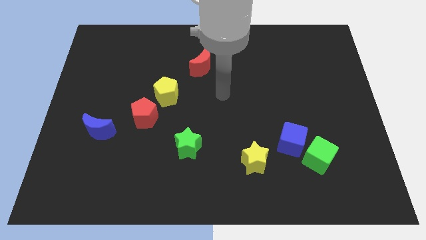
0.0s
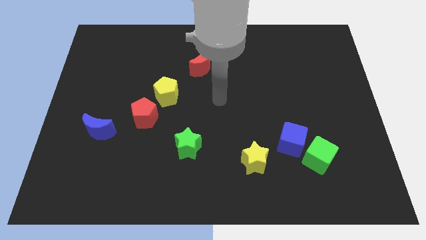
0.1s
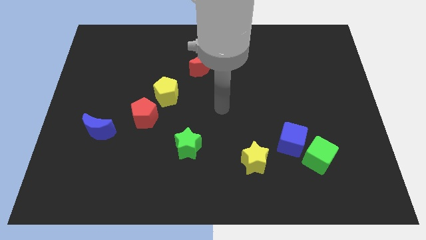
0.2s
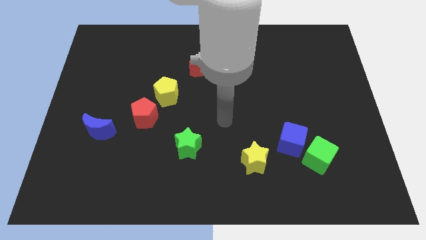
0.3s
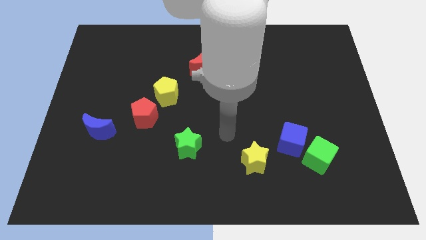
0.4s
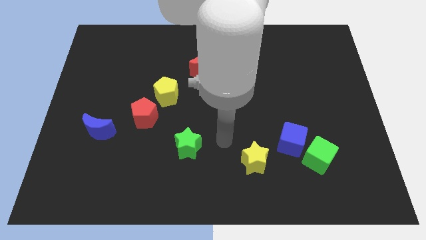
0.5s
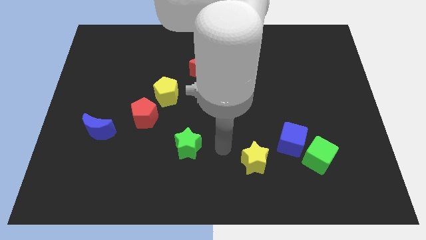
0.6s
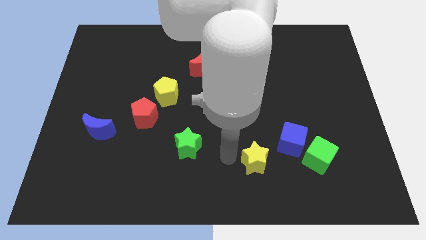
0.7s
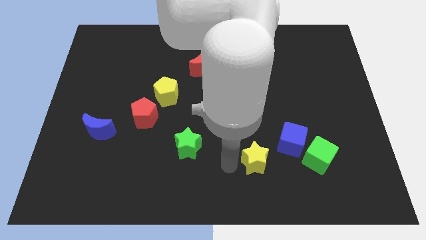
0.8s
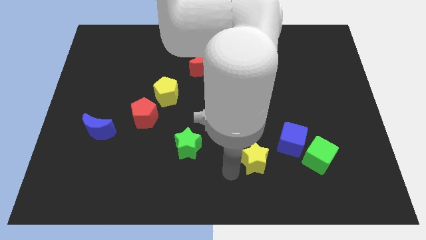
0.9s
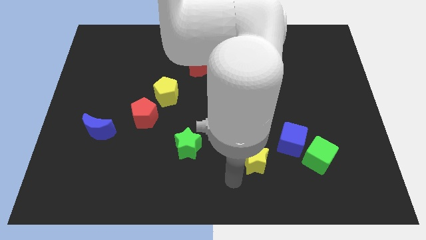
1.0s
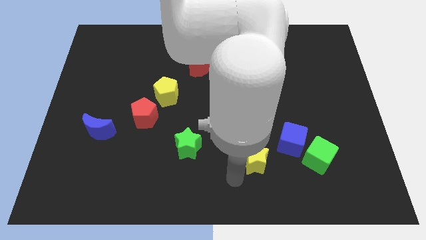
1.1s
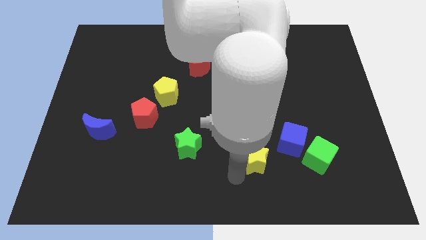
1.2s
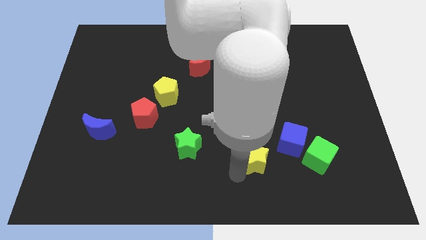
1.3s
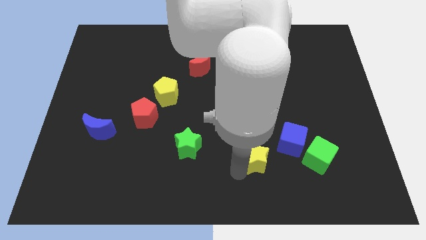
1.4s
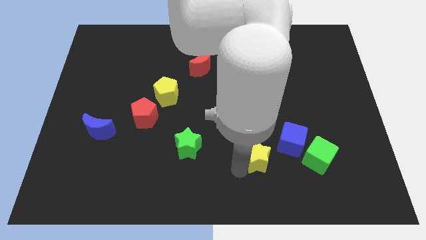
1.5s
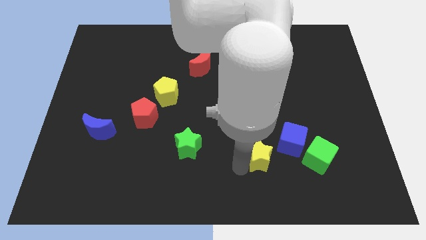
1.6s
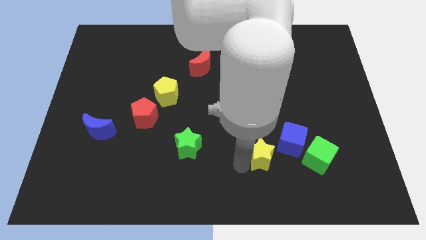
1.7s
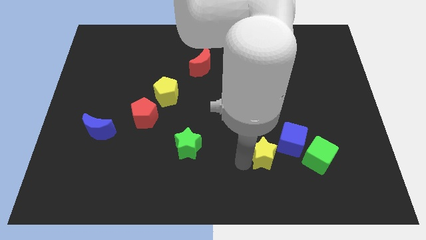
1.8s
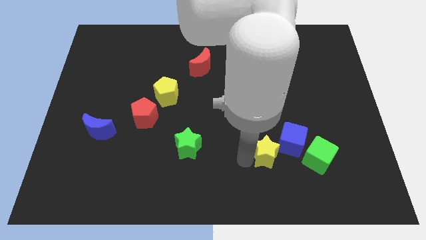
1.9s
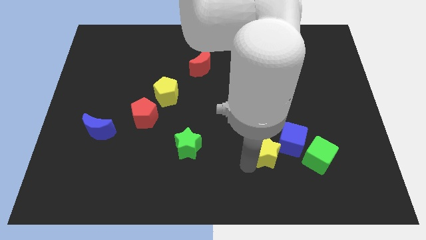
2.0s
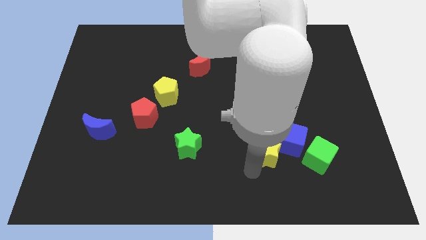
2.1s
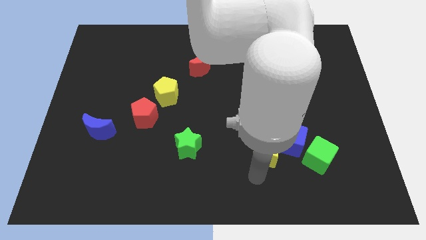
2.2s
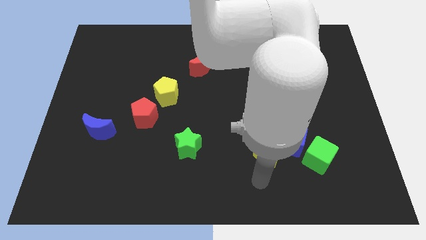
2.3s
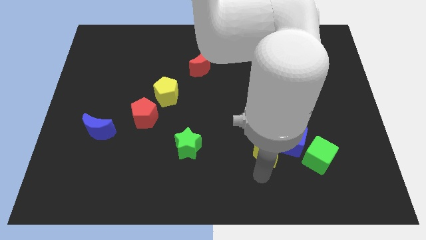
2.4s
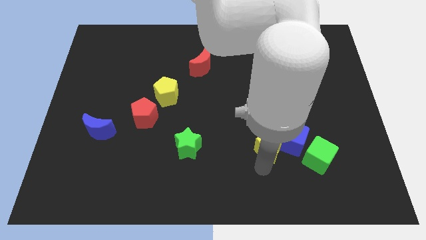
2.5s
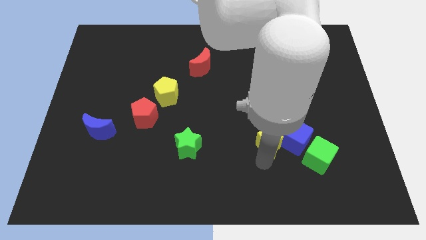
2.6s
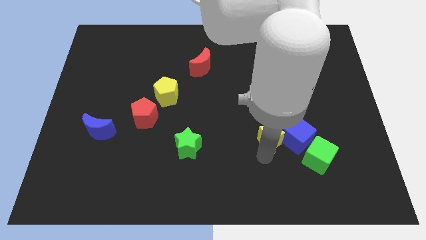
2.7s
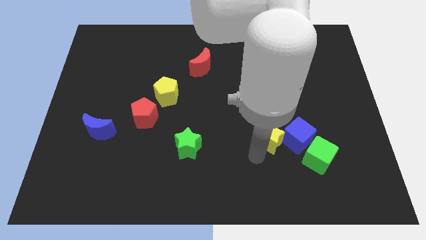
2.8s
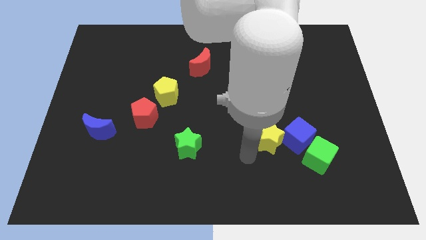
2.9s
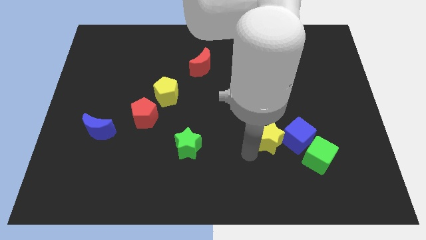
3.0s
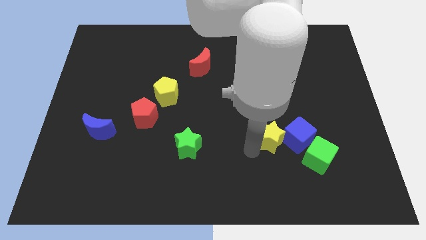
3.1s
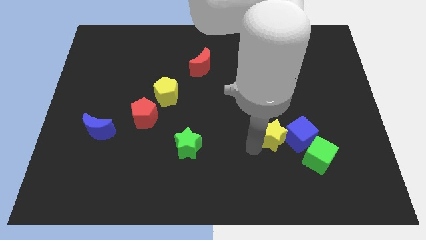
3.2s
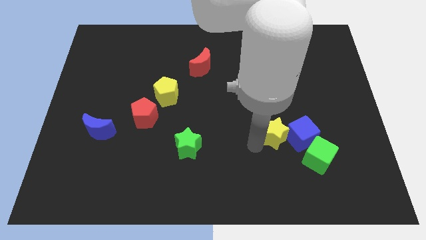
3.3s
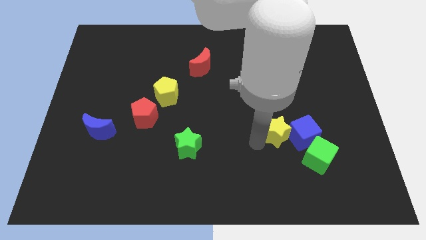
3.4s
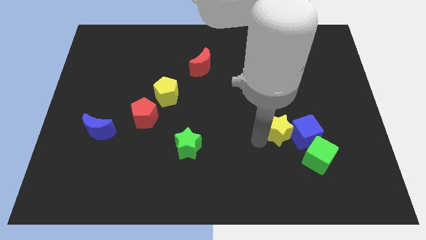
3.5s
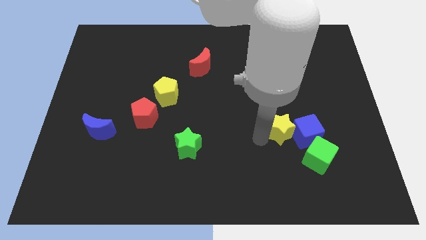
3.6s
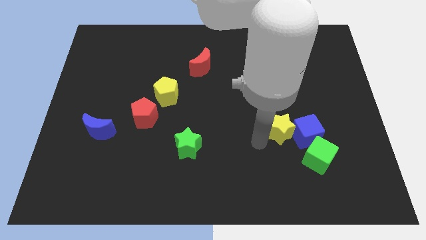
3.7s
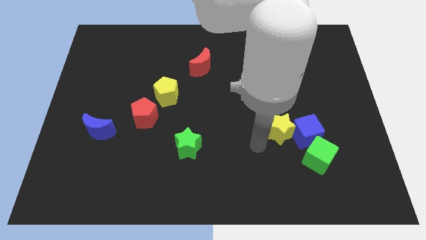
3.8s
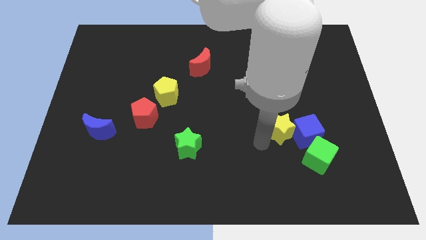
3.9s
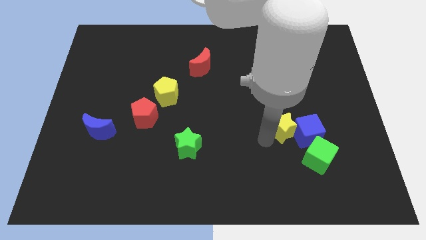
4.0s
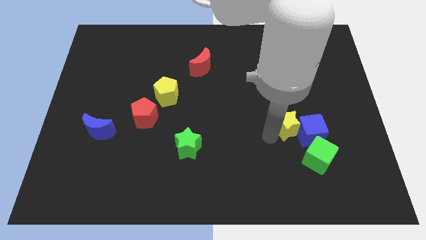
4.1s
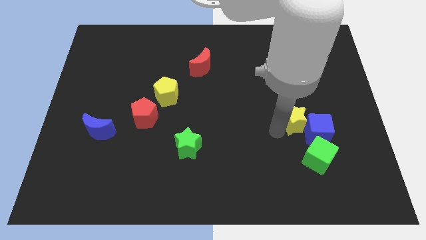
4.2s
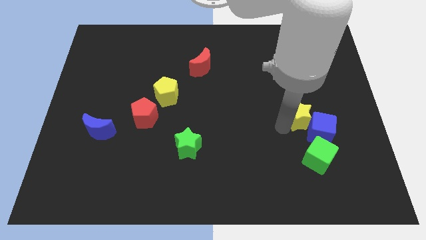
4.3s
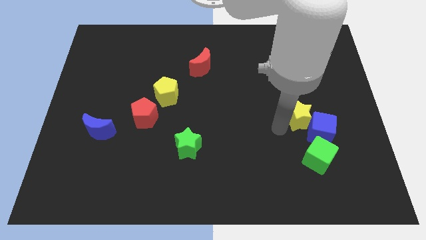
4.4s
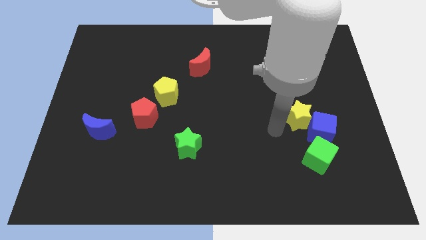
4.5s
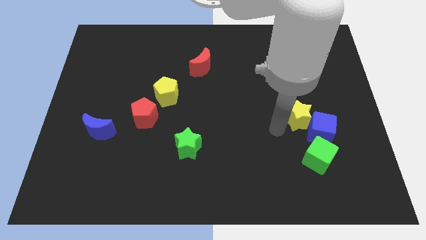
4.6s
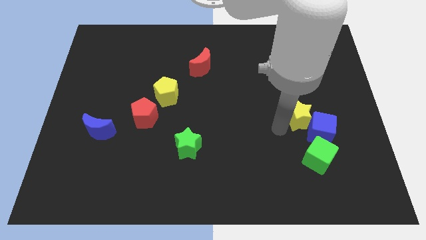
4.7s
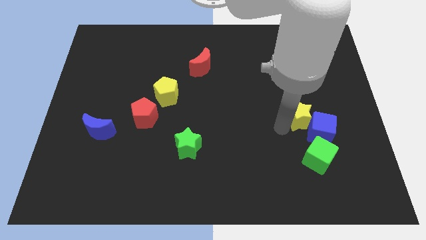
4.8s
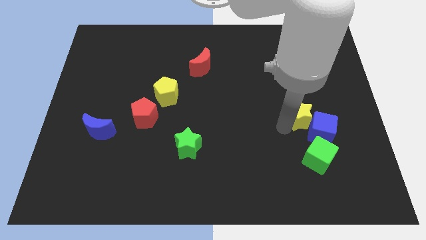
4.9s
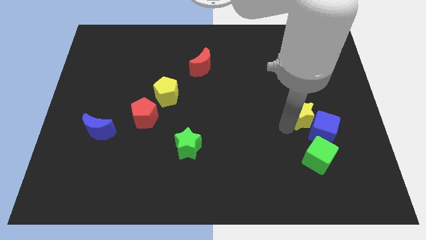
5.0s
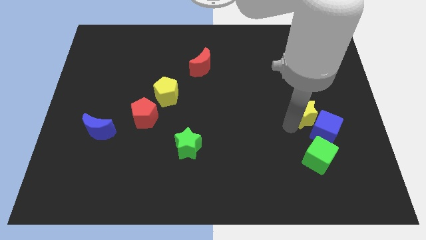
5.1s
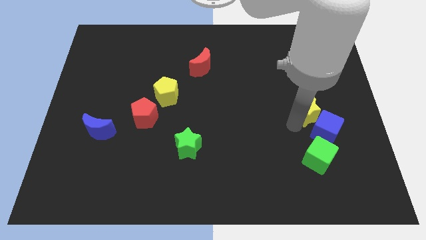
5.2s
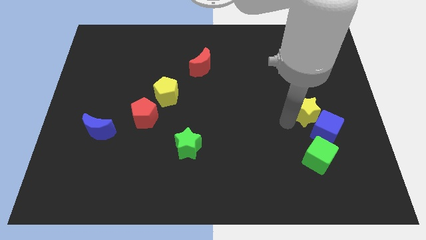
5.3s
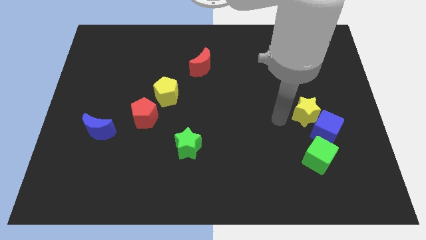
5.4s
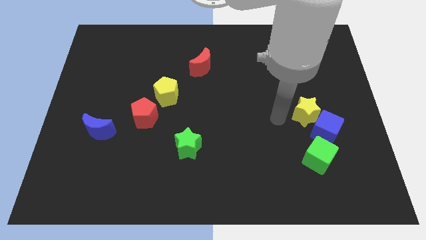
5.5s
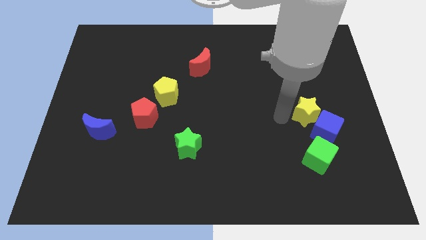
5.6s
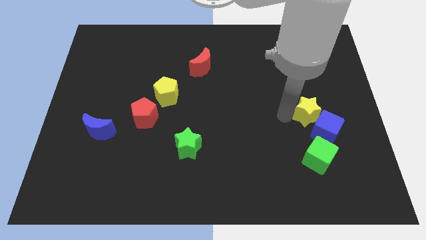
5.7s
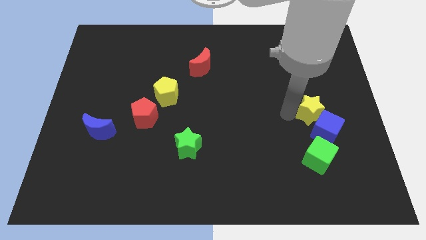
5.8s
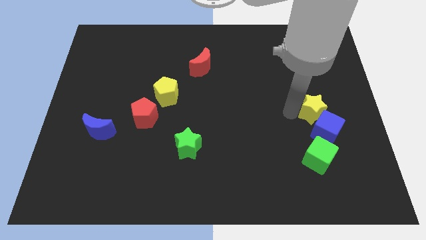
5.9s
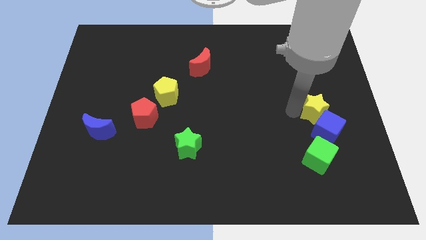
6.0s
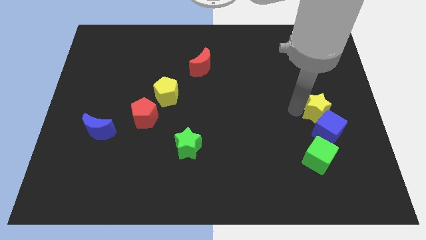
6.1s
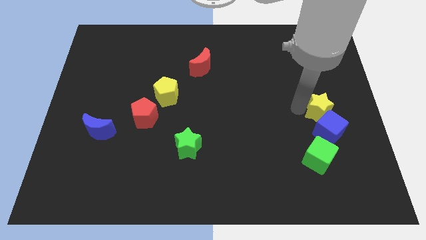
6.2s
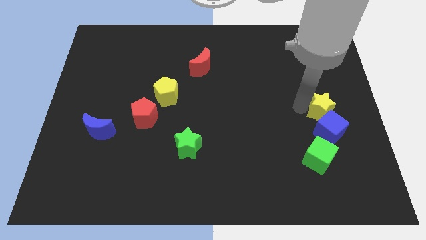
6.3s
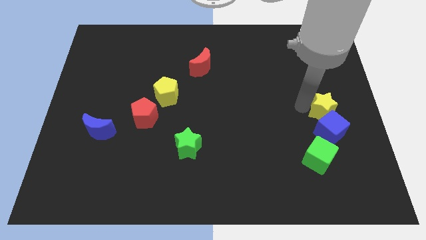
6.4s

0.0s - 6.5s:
push the yellow star to the center right
